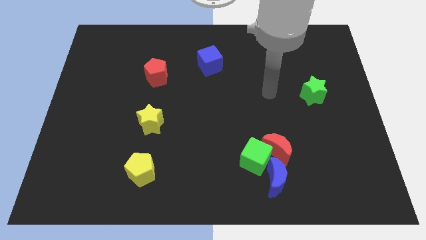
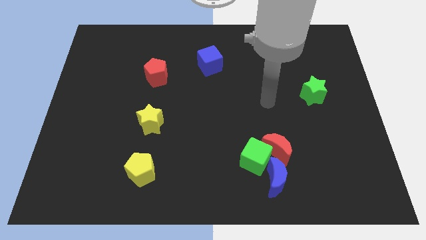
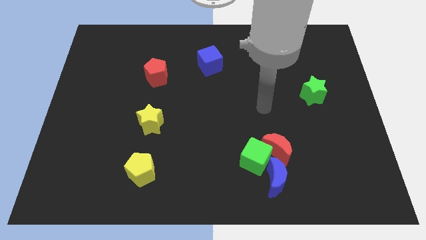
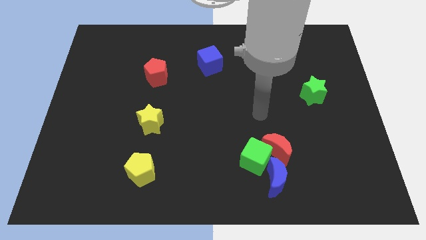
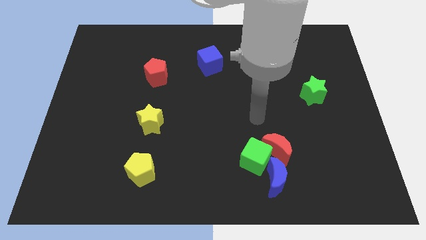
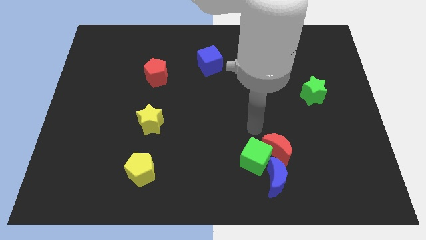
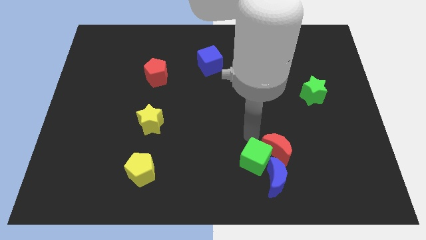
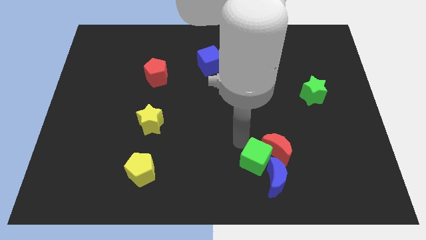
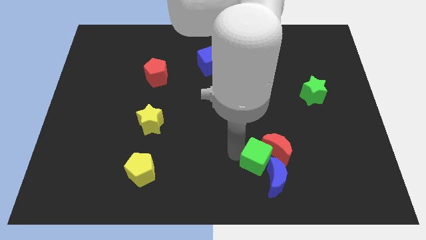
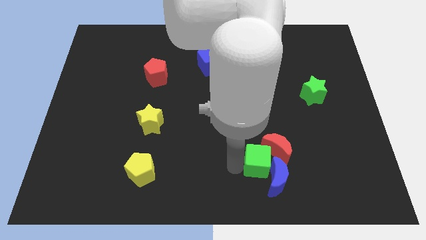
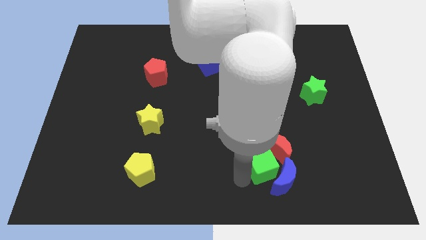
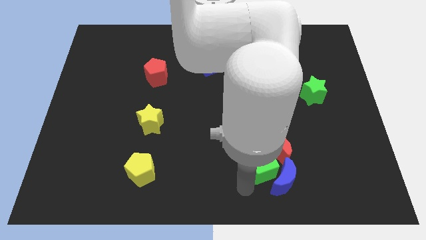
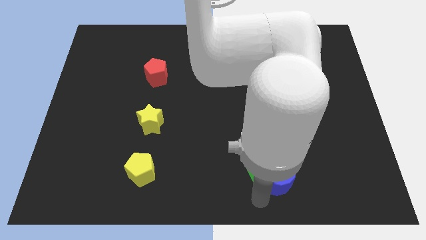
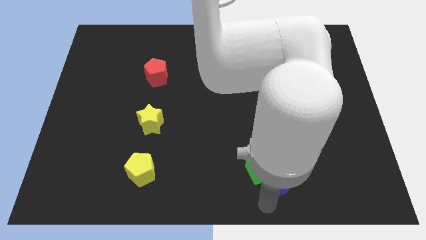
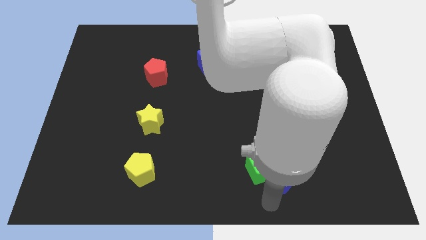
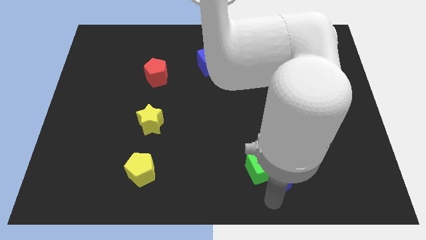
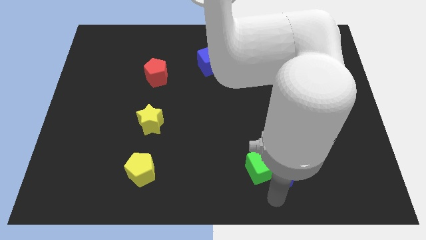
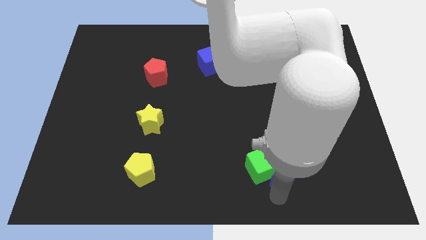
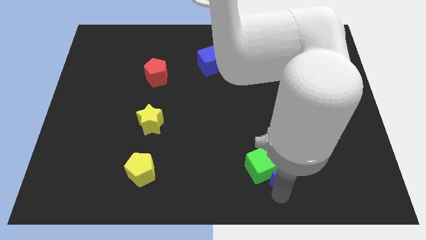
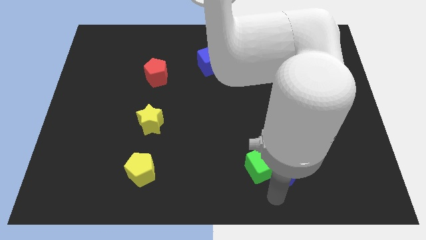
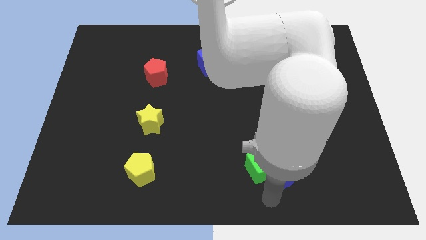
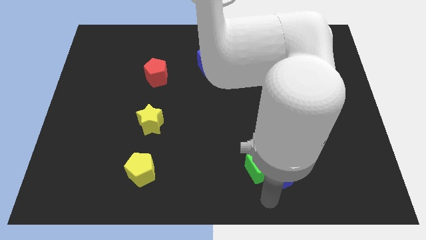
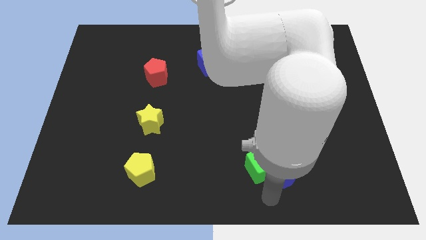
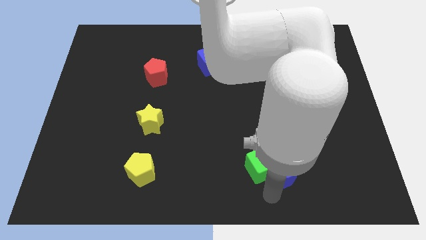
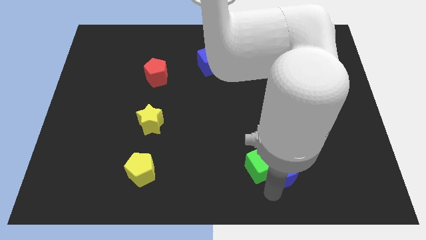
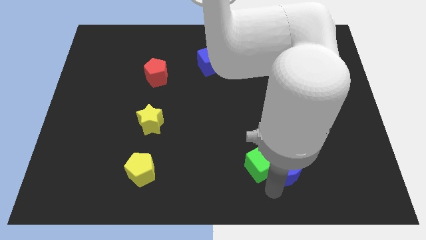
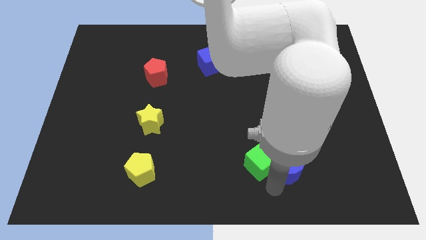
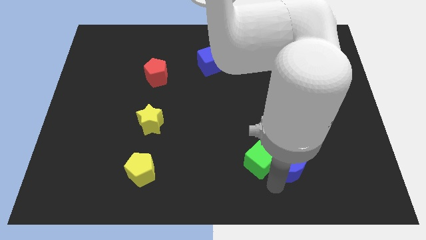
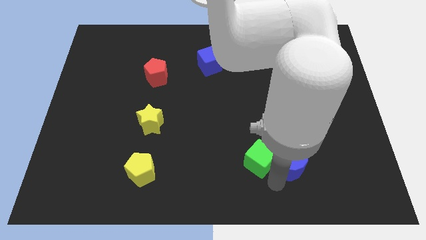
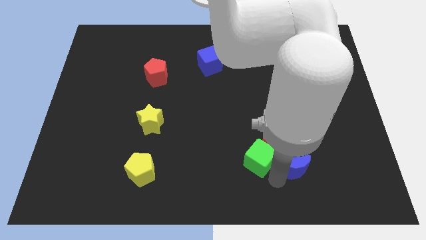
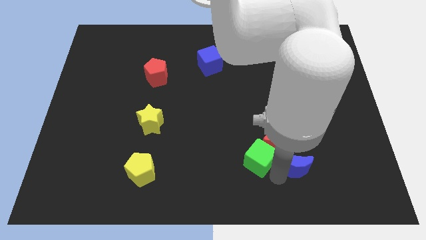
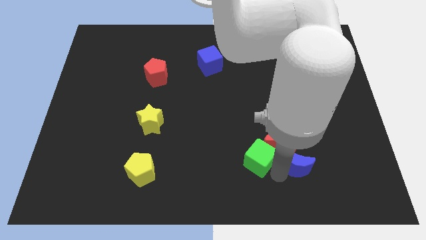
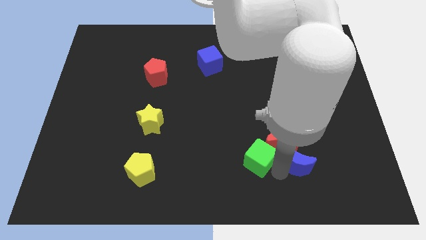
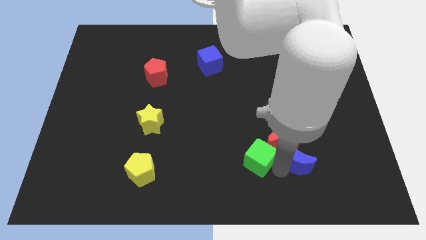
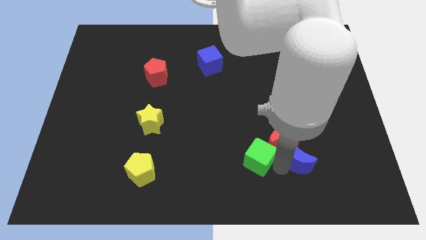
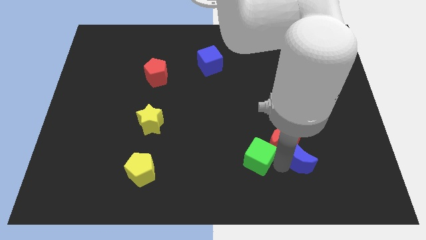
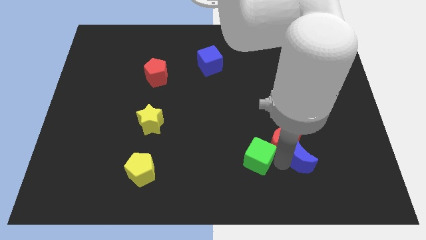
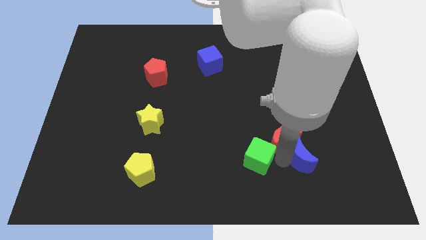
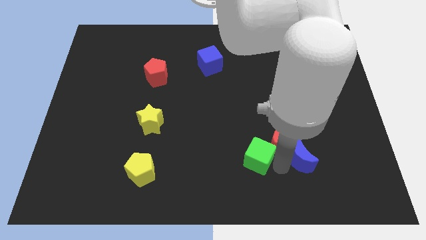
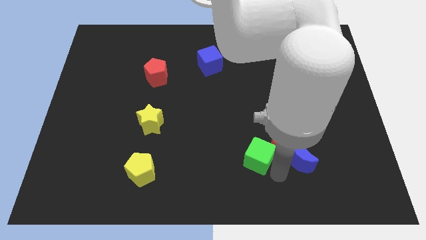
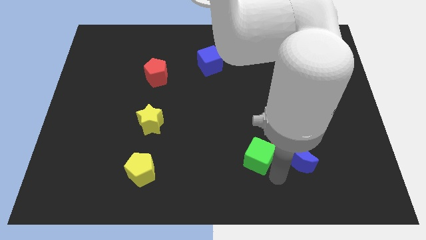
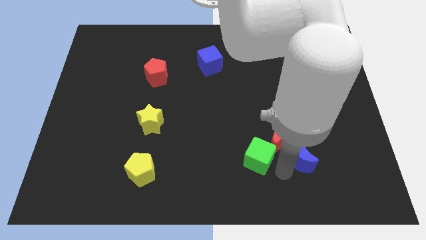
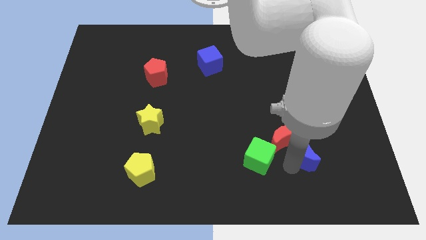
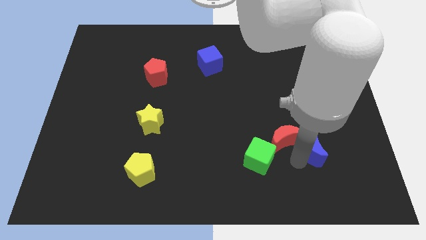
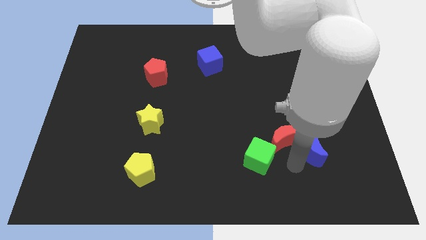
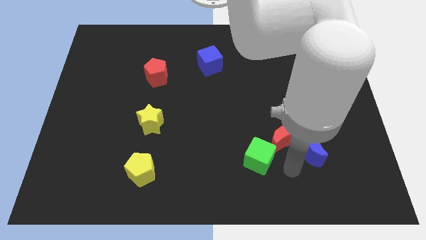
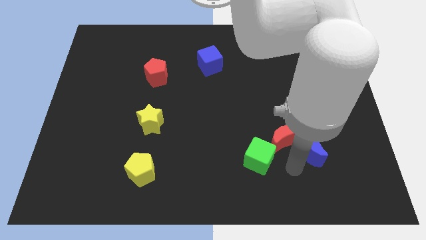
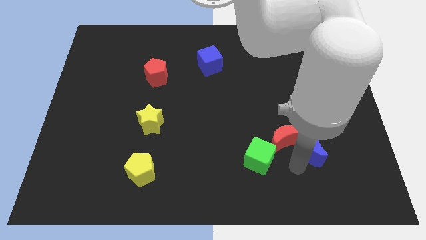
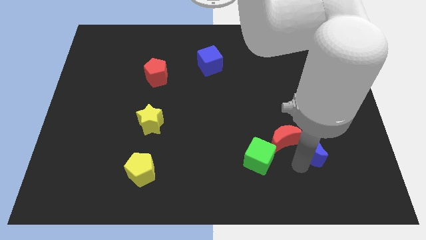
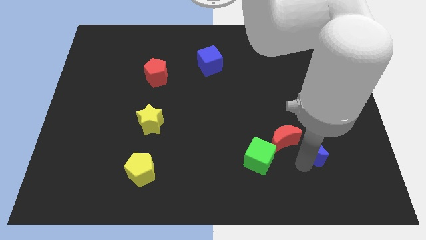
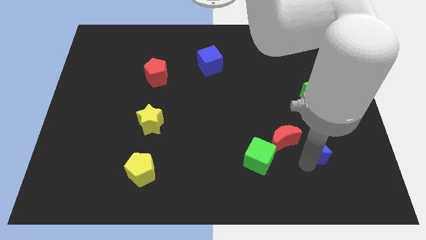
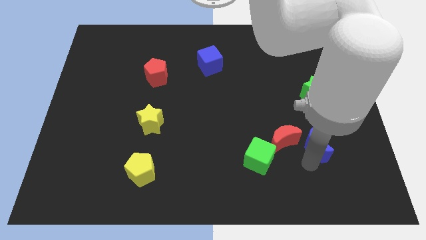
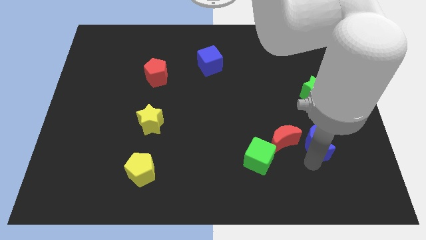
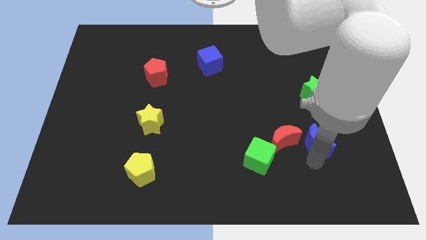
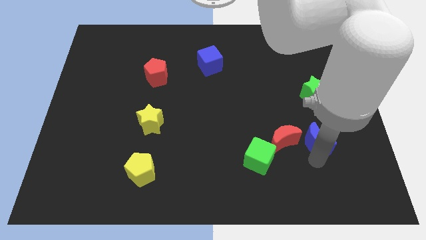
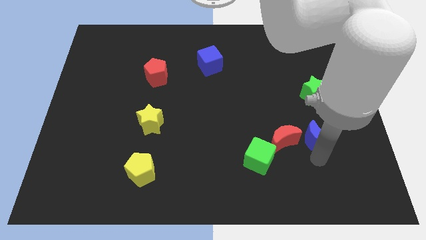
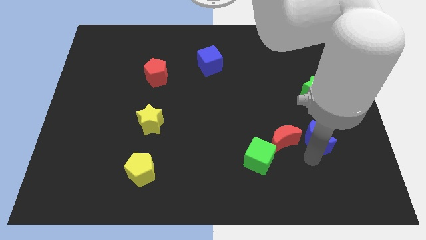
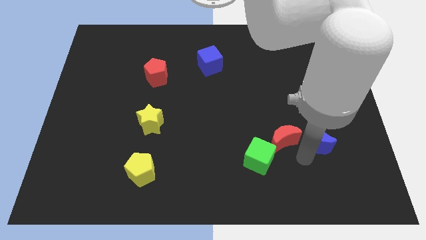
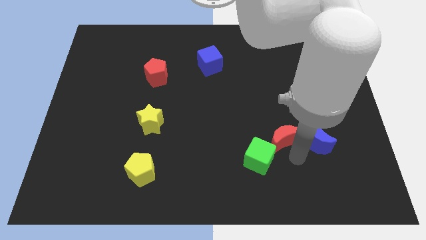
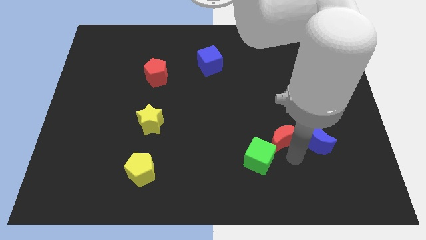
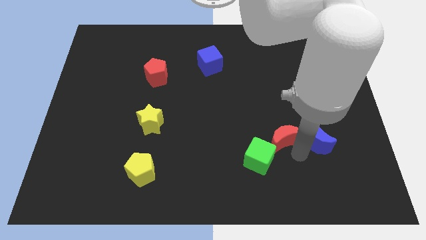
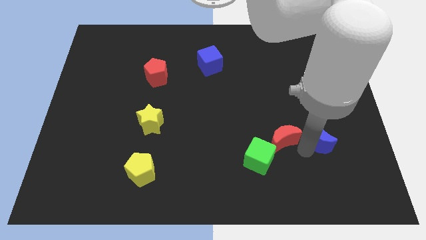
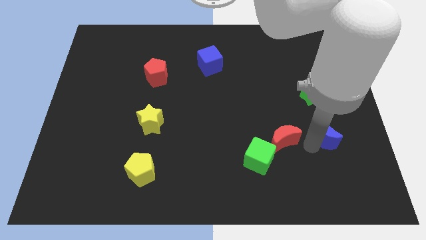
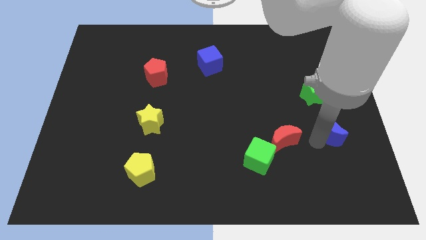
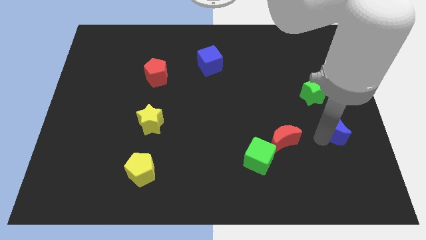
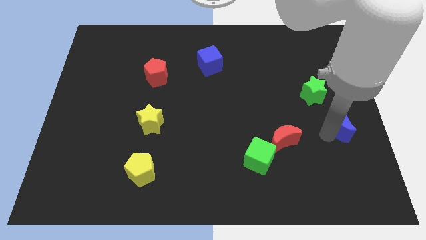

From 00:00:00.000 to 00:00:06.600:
push the blue moon to the right side of the board
